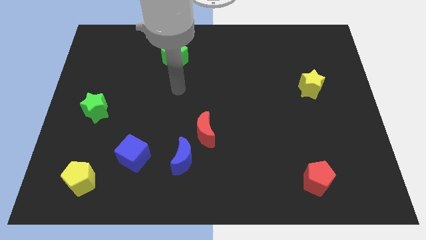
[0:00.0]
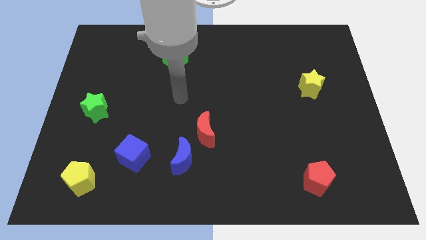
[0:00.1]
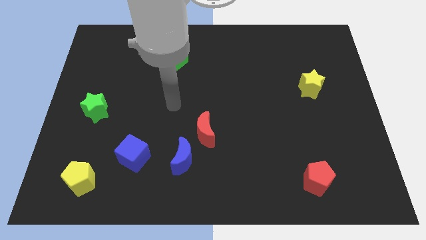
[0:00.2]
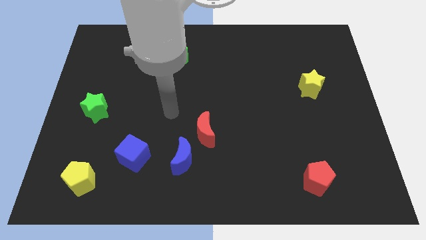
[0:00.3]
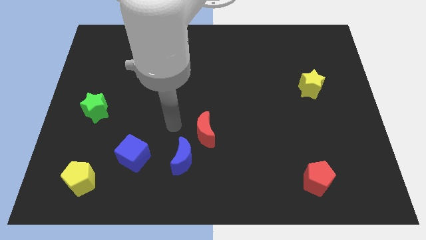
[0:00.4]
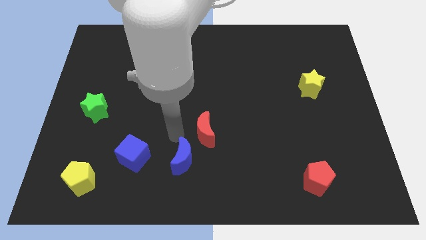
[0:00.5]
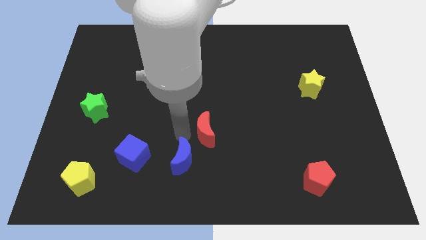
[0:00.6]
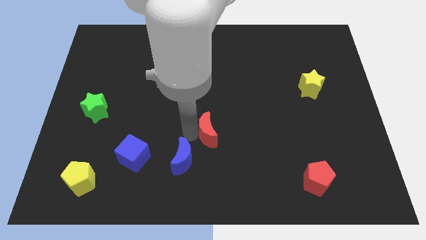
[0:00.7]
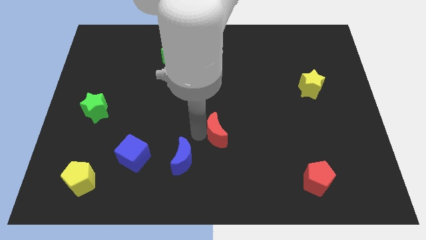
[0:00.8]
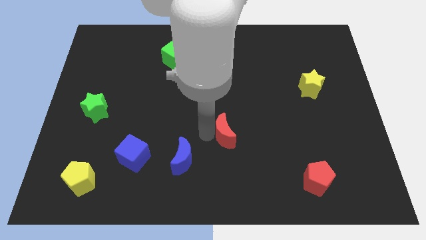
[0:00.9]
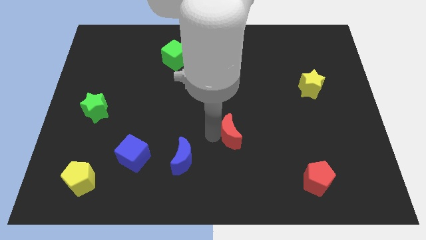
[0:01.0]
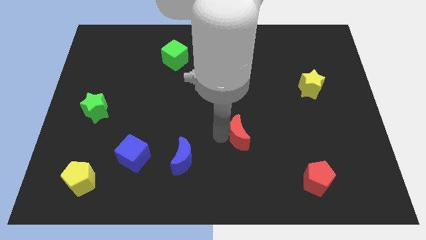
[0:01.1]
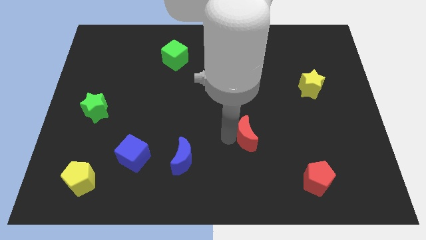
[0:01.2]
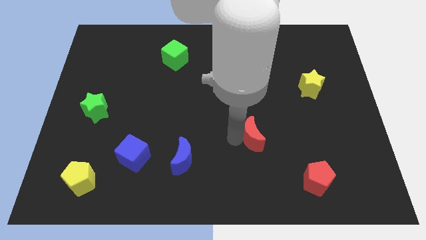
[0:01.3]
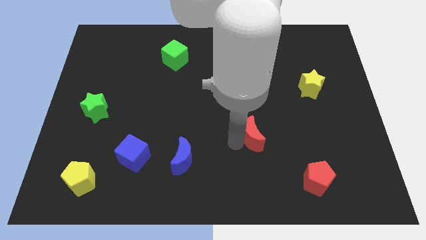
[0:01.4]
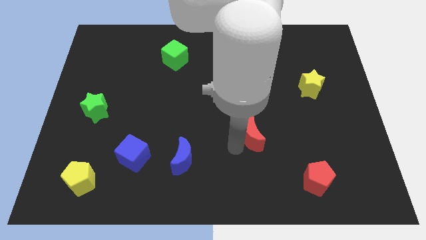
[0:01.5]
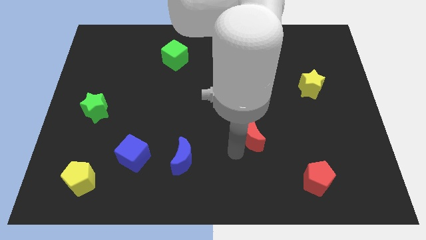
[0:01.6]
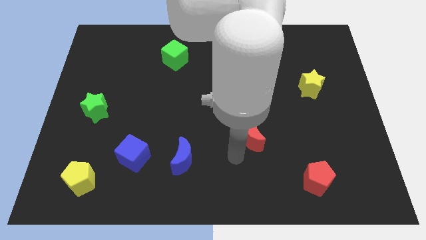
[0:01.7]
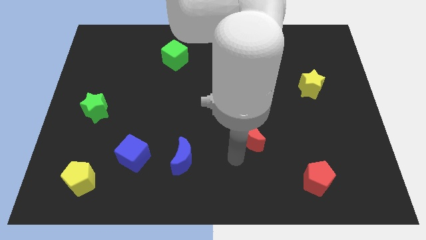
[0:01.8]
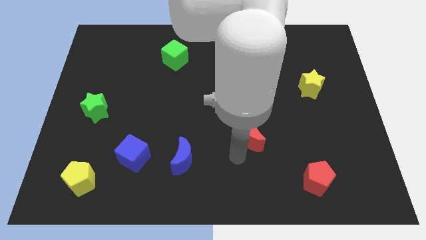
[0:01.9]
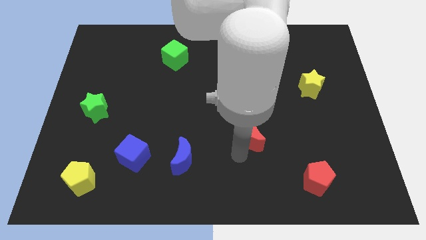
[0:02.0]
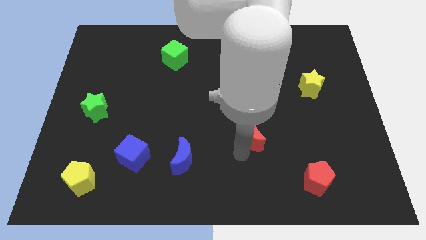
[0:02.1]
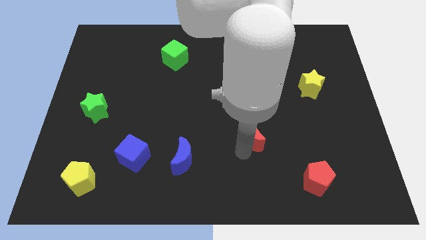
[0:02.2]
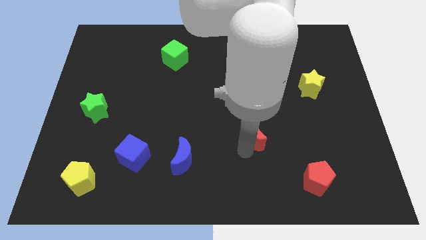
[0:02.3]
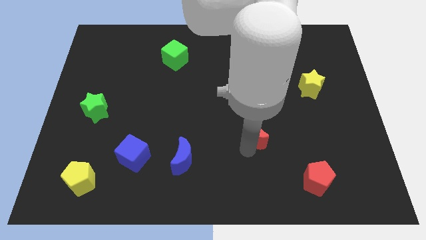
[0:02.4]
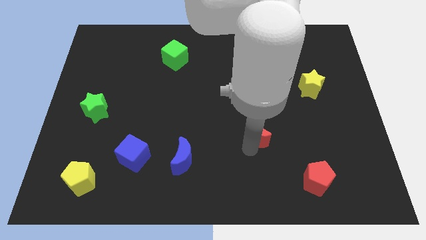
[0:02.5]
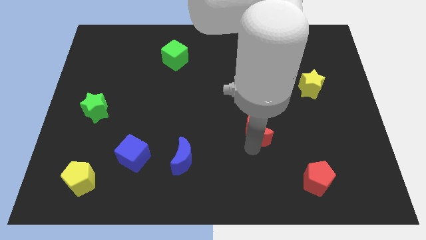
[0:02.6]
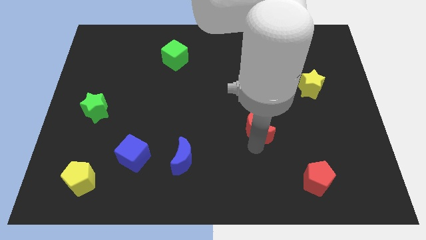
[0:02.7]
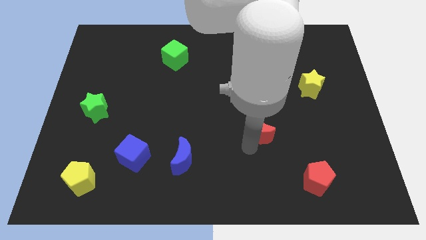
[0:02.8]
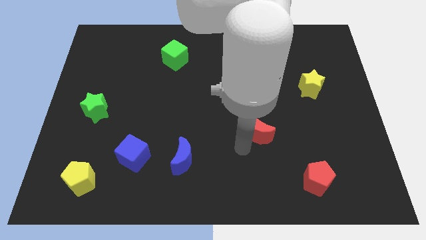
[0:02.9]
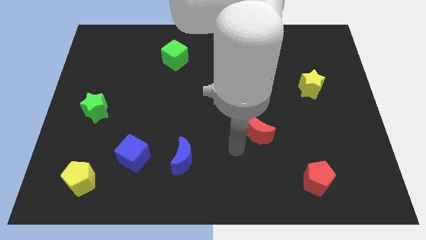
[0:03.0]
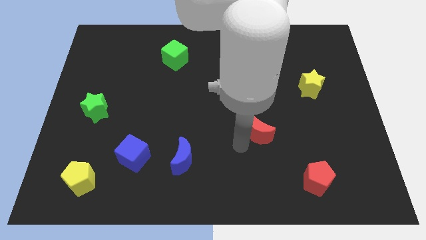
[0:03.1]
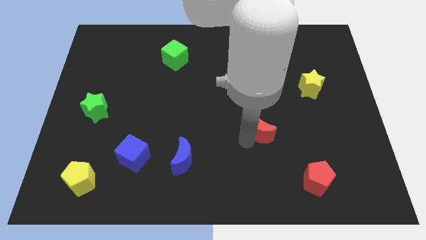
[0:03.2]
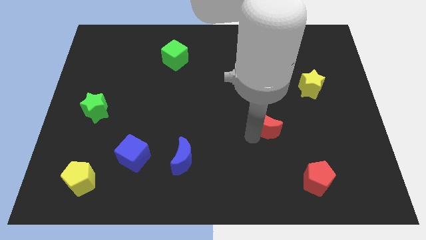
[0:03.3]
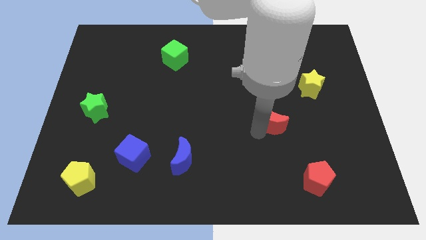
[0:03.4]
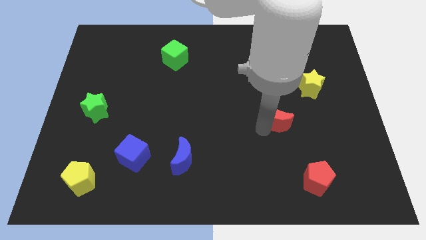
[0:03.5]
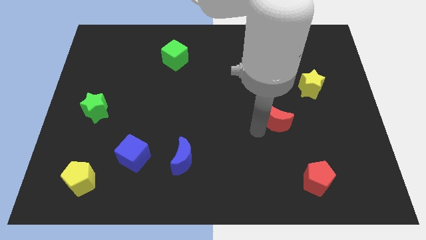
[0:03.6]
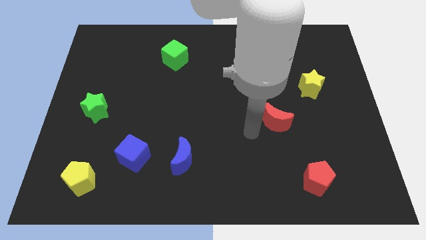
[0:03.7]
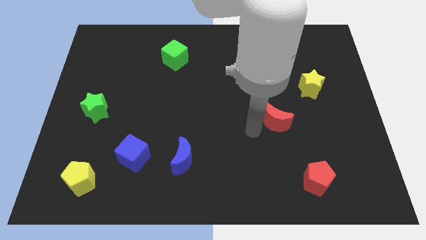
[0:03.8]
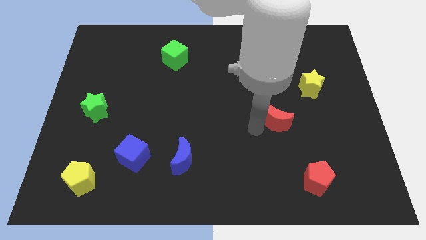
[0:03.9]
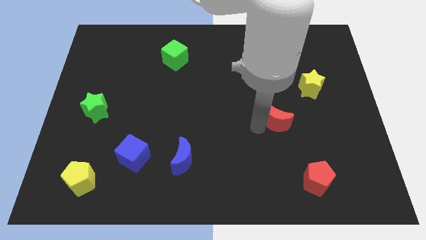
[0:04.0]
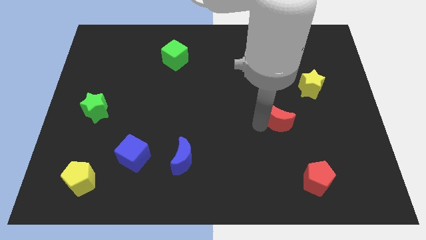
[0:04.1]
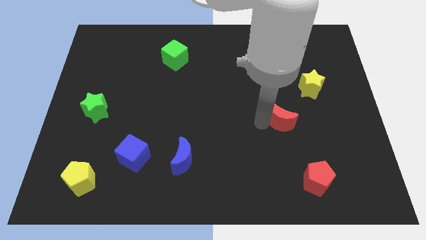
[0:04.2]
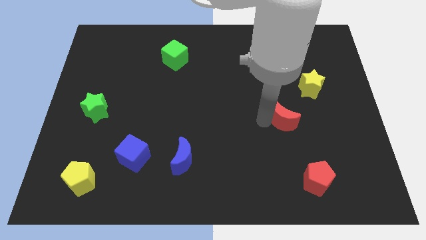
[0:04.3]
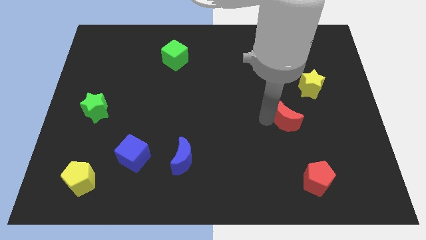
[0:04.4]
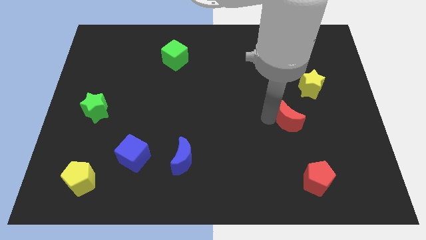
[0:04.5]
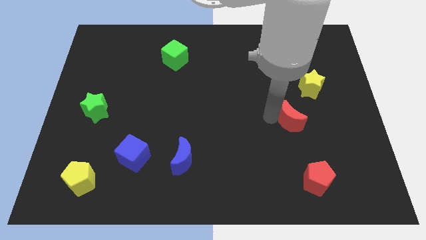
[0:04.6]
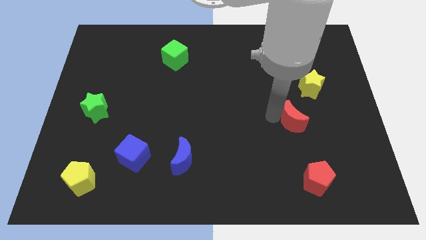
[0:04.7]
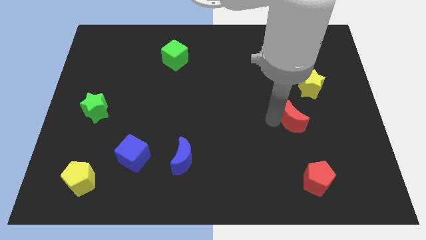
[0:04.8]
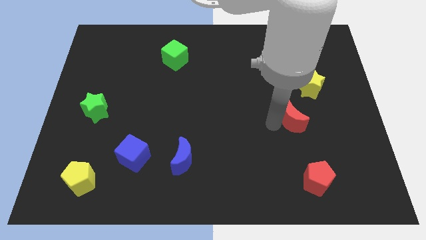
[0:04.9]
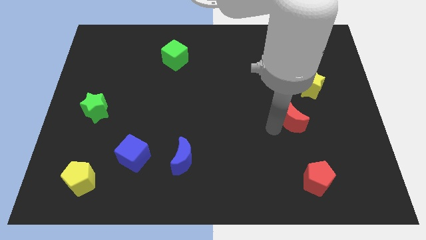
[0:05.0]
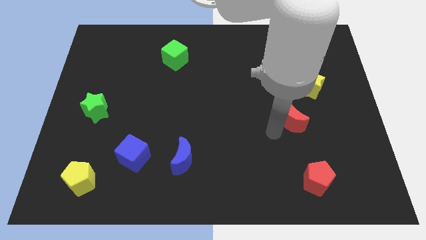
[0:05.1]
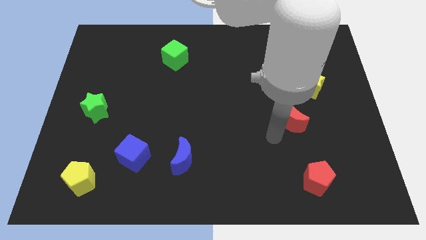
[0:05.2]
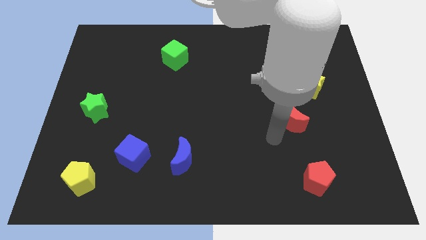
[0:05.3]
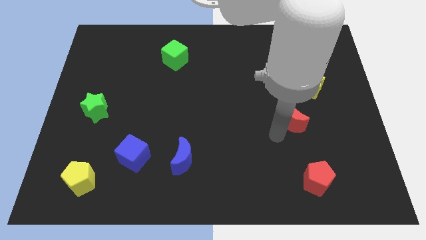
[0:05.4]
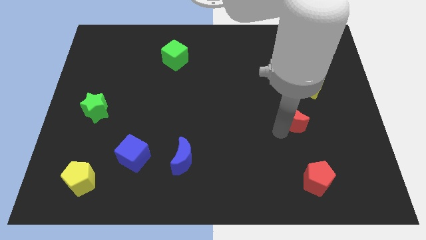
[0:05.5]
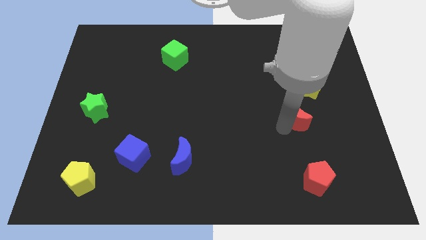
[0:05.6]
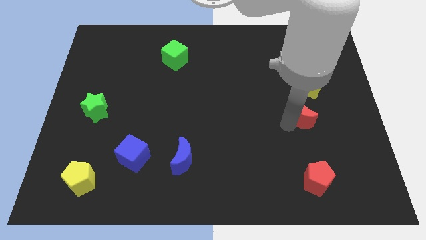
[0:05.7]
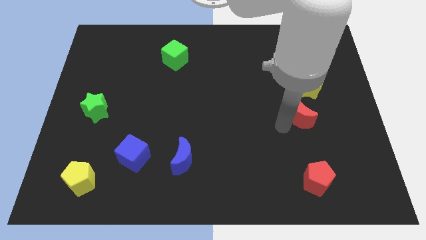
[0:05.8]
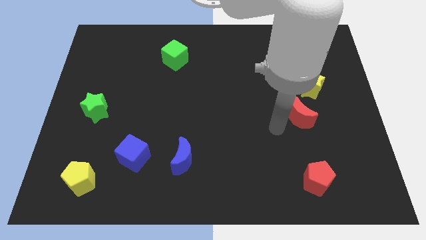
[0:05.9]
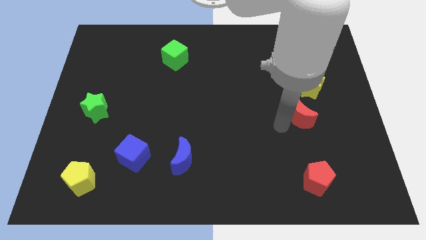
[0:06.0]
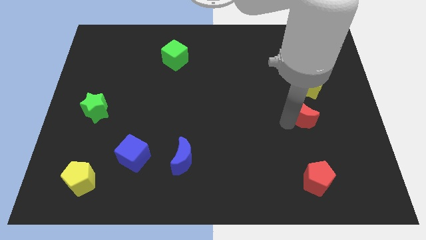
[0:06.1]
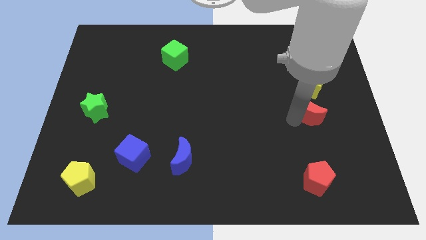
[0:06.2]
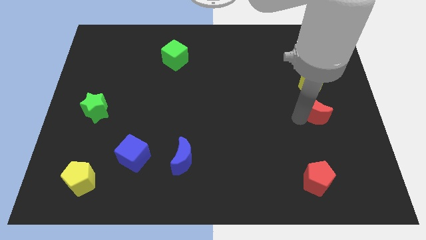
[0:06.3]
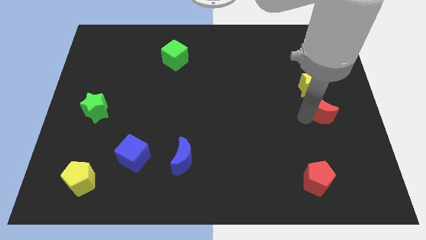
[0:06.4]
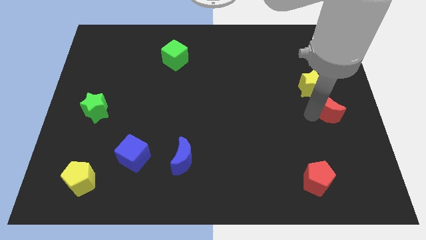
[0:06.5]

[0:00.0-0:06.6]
put the red moon to the center right

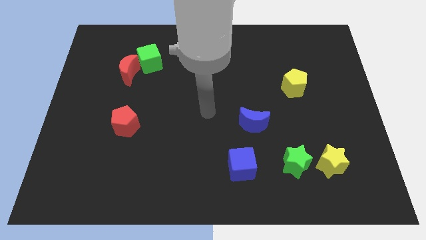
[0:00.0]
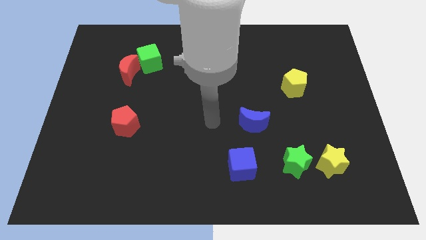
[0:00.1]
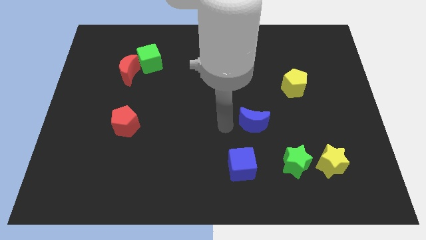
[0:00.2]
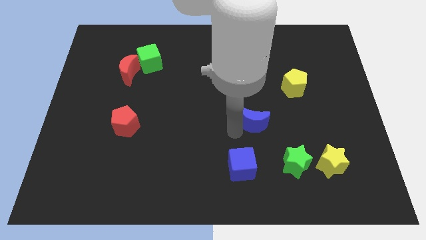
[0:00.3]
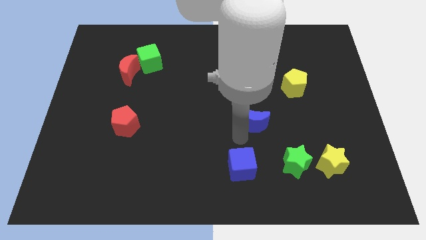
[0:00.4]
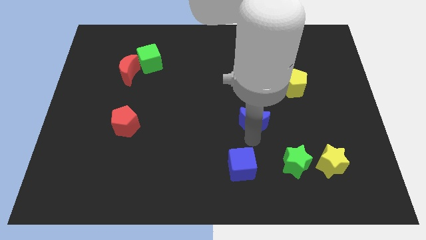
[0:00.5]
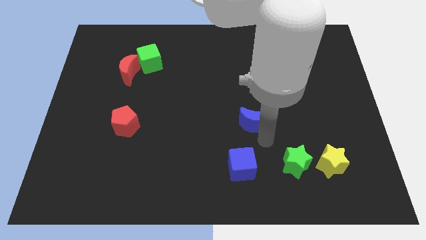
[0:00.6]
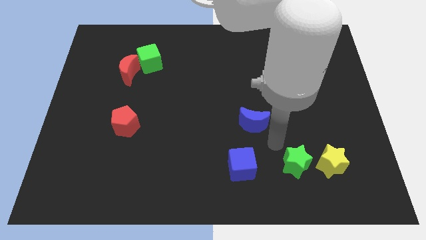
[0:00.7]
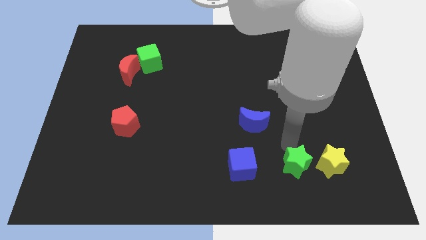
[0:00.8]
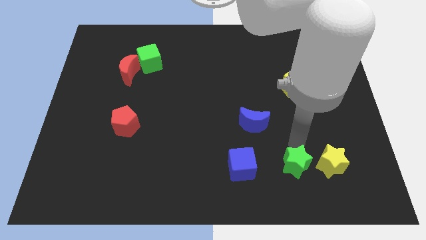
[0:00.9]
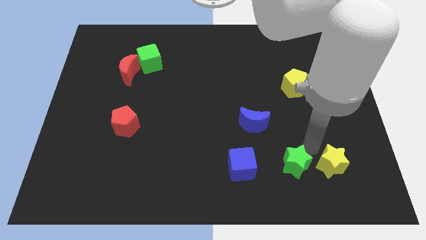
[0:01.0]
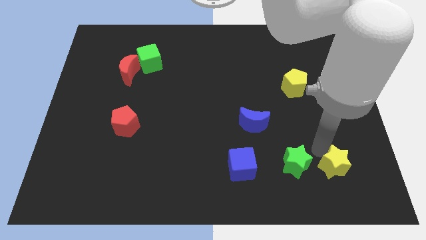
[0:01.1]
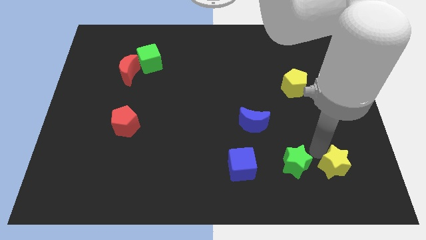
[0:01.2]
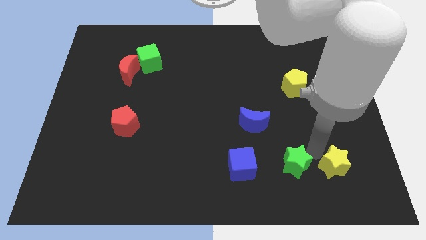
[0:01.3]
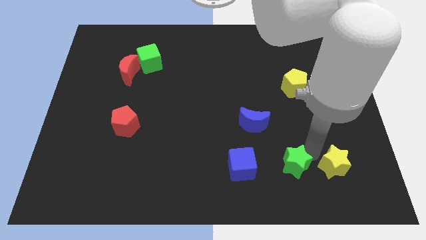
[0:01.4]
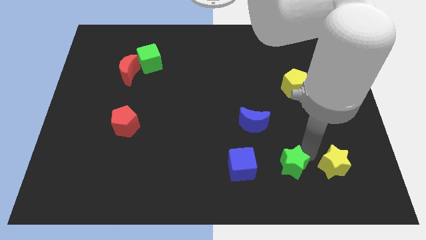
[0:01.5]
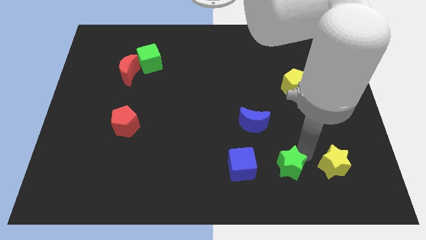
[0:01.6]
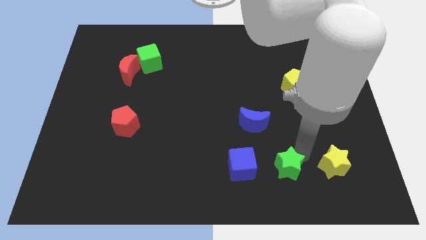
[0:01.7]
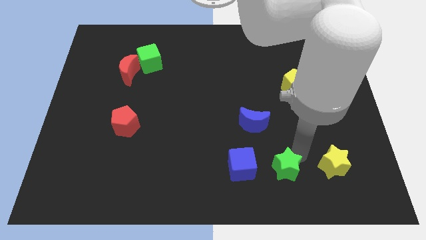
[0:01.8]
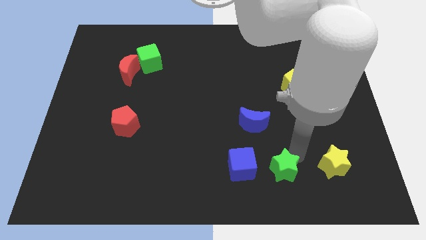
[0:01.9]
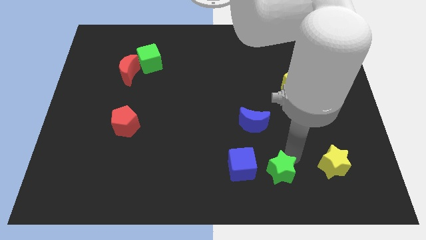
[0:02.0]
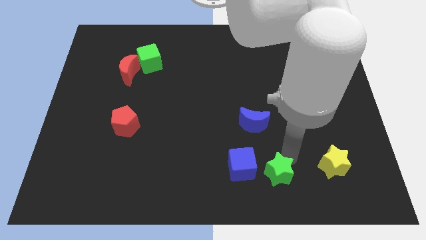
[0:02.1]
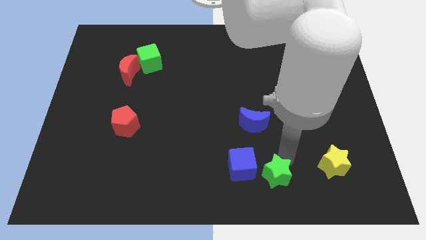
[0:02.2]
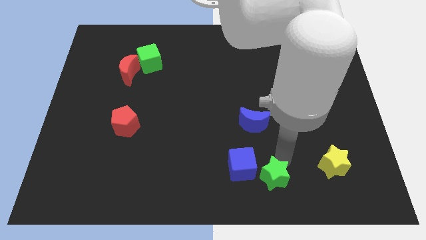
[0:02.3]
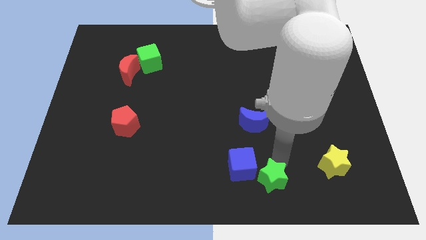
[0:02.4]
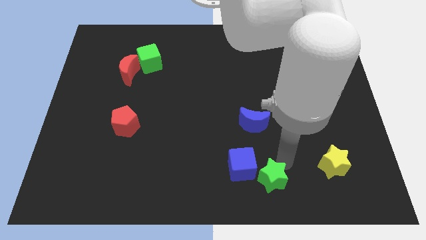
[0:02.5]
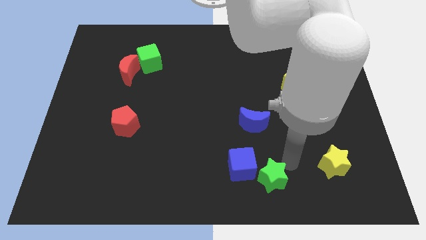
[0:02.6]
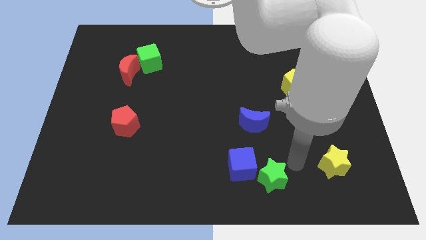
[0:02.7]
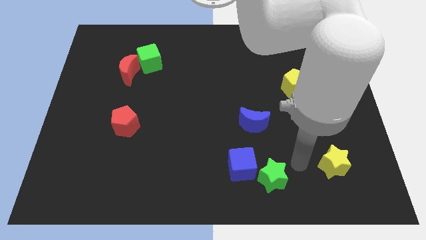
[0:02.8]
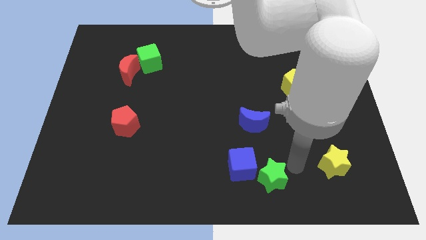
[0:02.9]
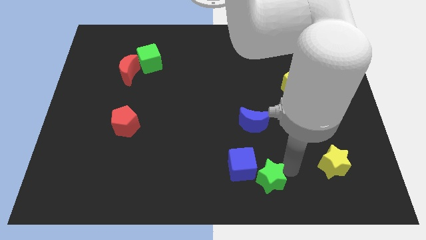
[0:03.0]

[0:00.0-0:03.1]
push the green star to the bottom
